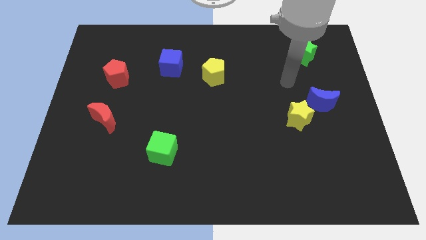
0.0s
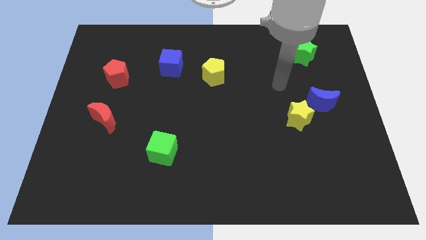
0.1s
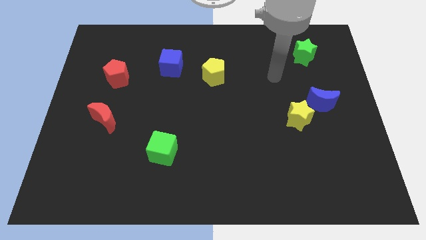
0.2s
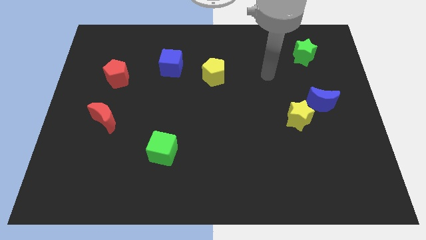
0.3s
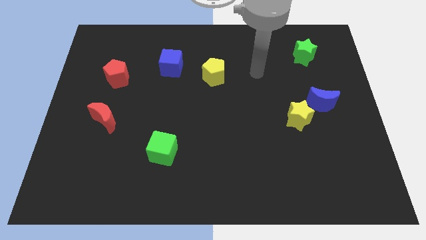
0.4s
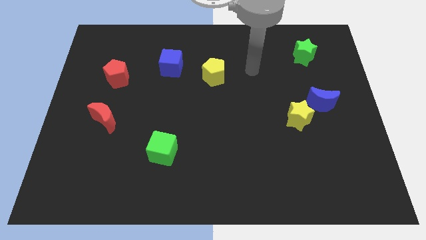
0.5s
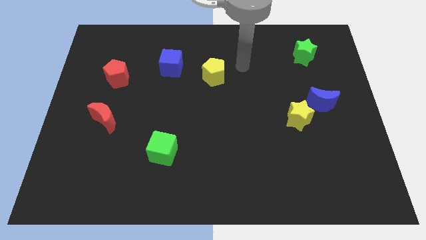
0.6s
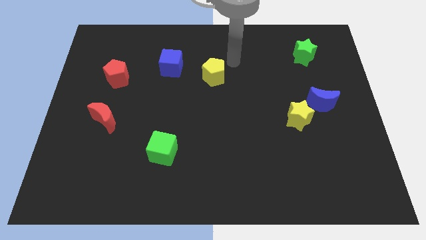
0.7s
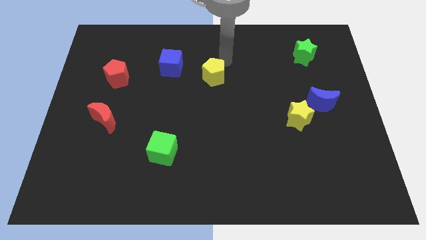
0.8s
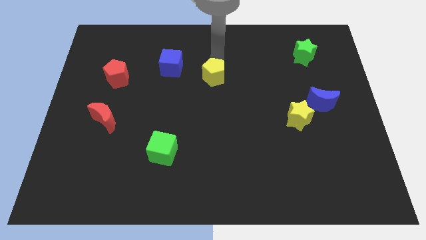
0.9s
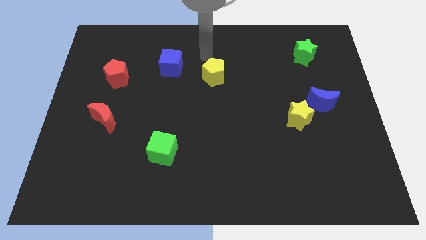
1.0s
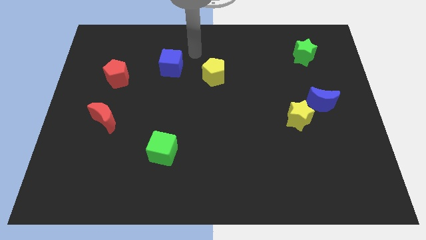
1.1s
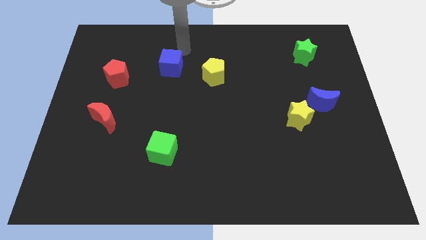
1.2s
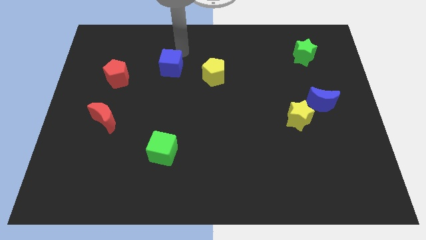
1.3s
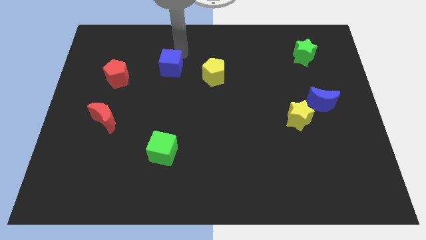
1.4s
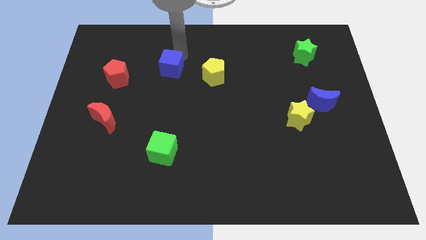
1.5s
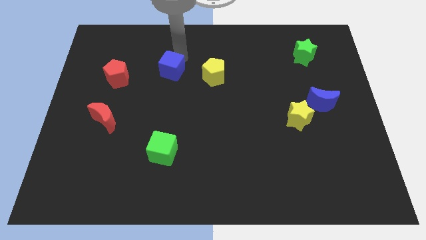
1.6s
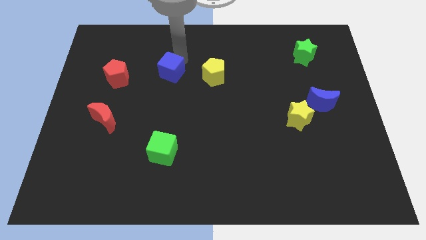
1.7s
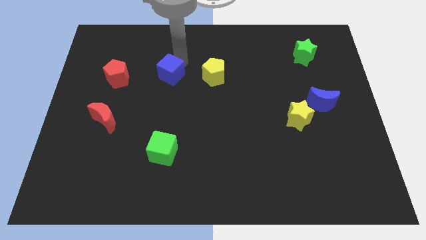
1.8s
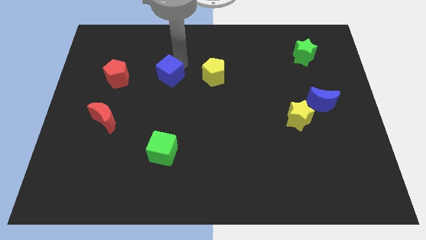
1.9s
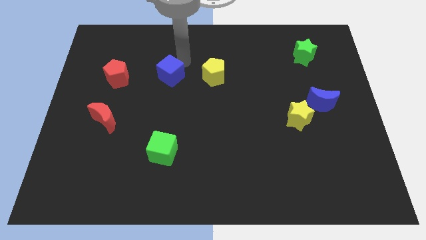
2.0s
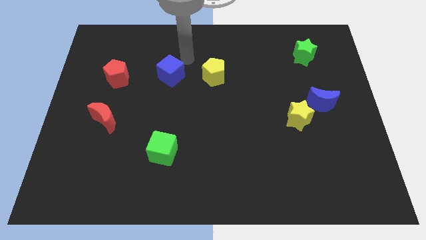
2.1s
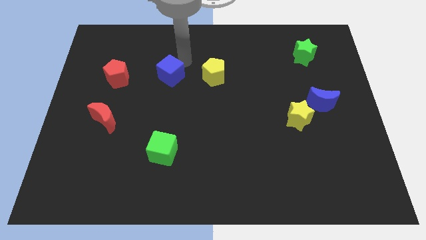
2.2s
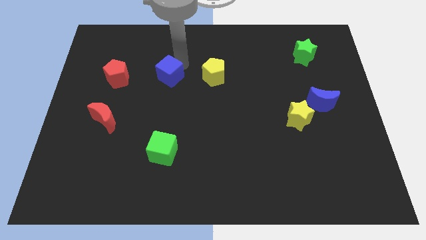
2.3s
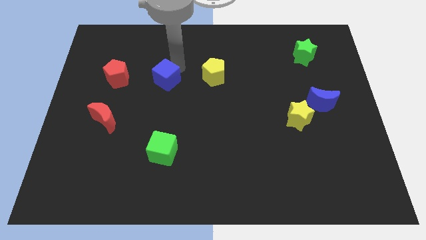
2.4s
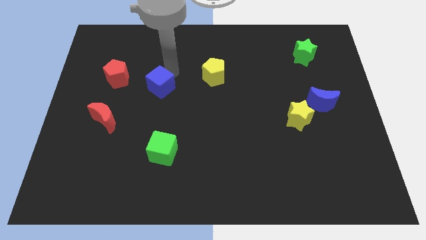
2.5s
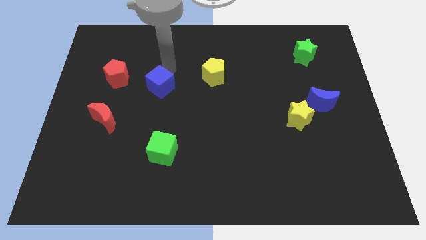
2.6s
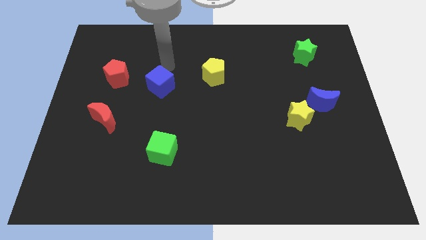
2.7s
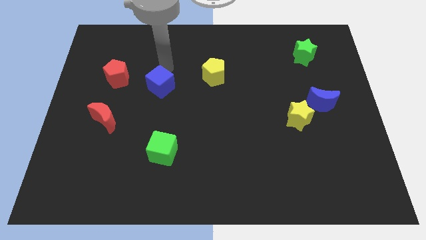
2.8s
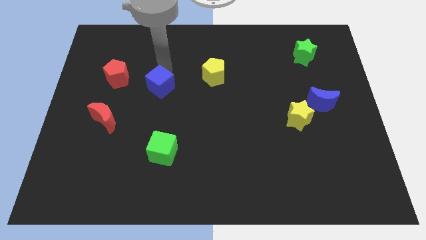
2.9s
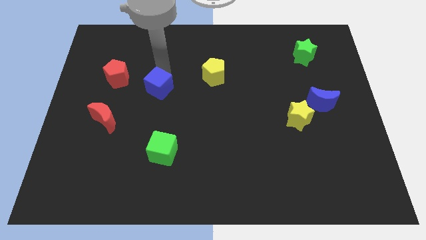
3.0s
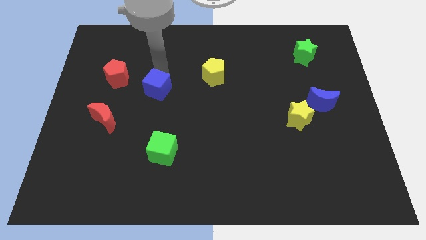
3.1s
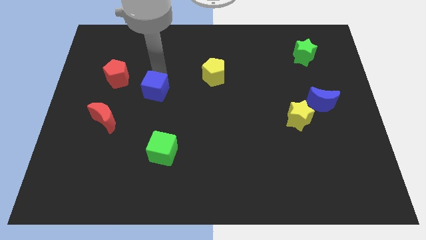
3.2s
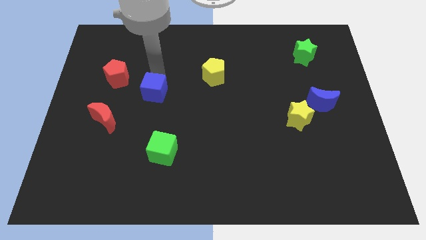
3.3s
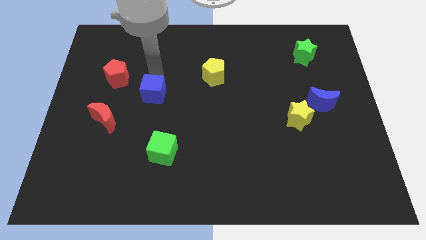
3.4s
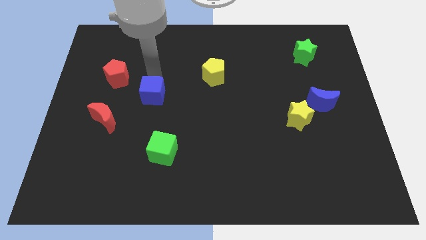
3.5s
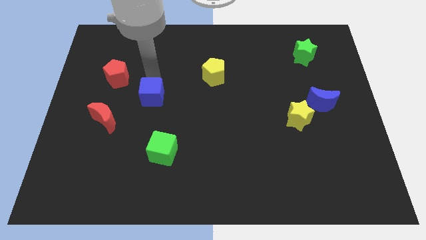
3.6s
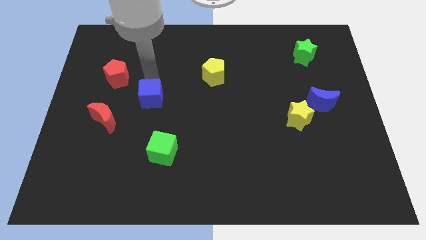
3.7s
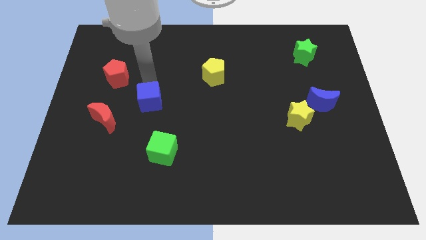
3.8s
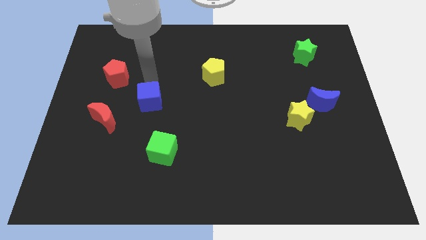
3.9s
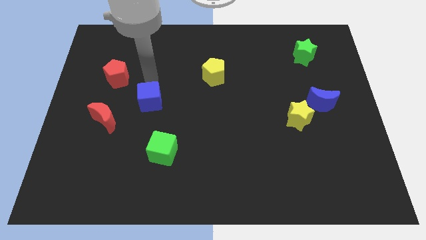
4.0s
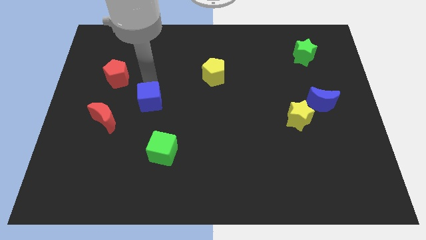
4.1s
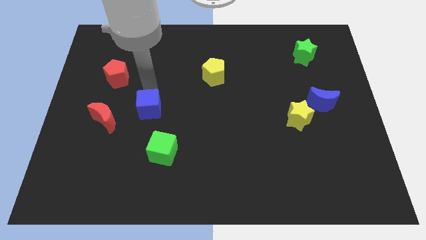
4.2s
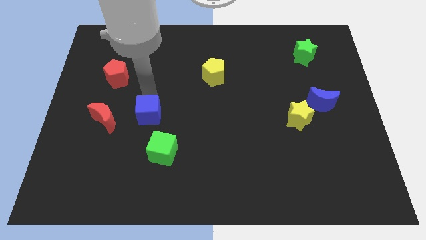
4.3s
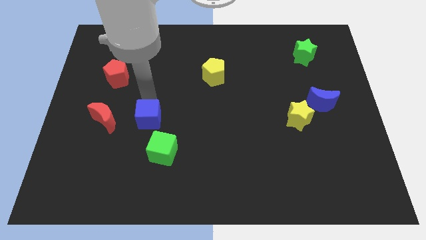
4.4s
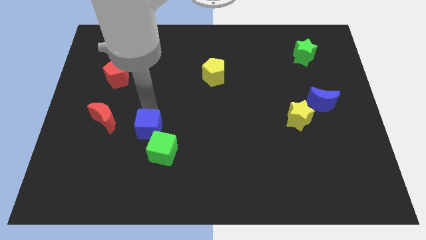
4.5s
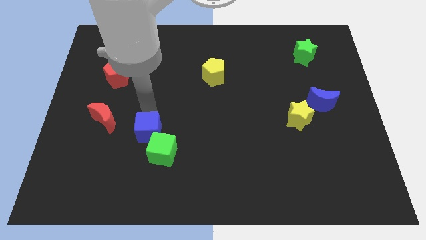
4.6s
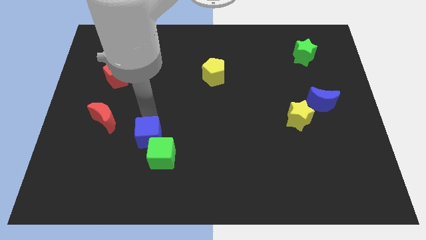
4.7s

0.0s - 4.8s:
push the blue cube down

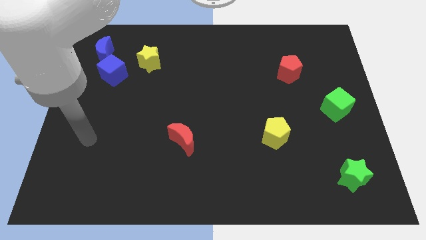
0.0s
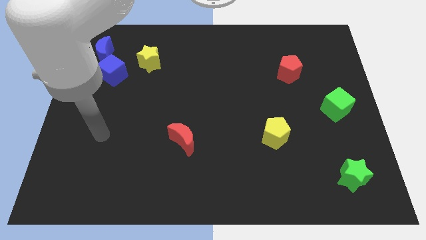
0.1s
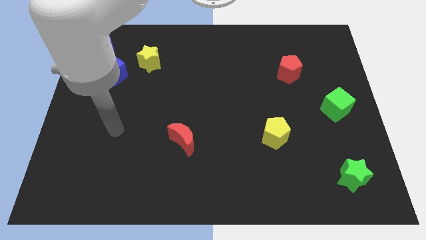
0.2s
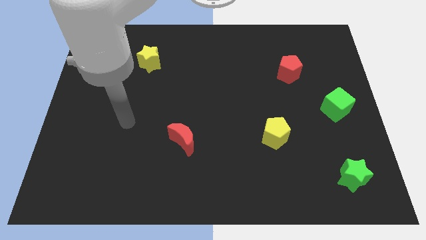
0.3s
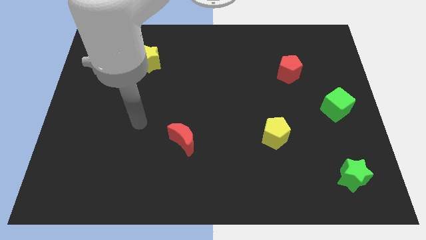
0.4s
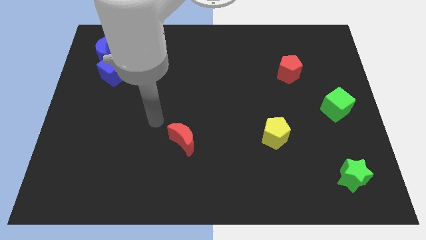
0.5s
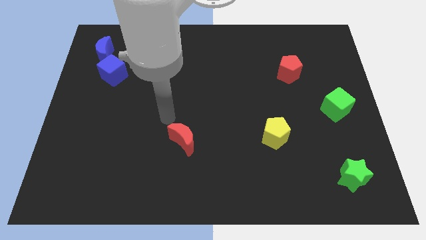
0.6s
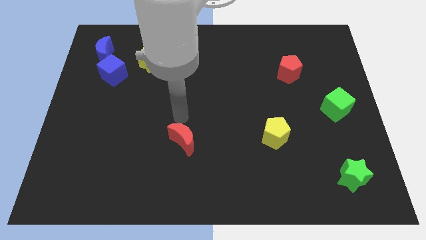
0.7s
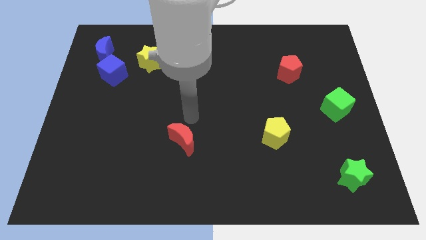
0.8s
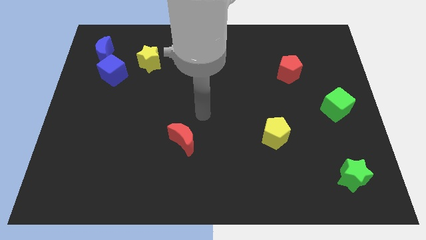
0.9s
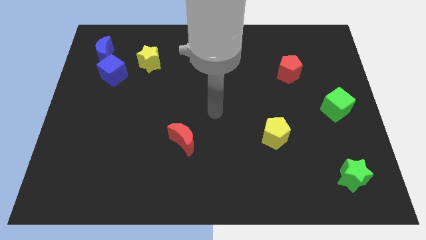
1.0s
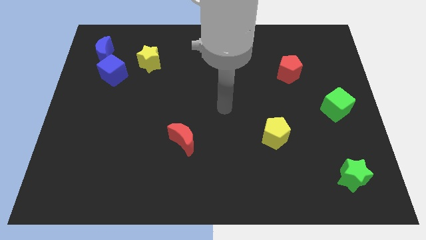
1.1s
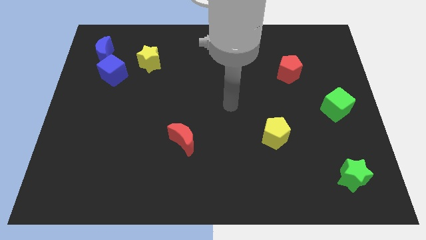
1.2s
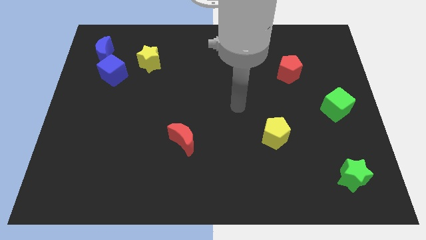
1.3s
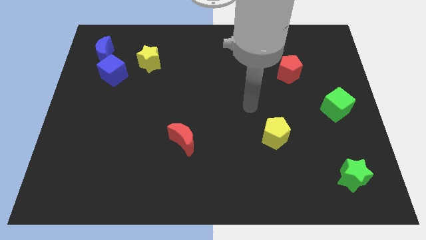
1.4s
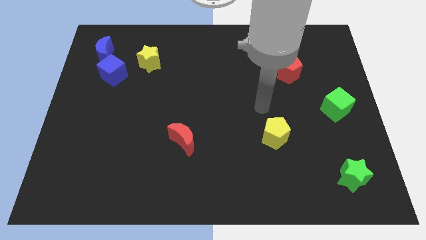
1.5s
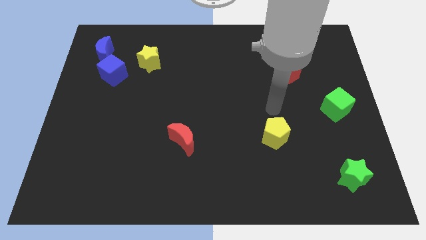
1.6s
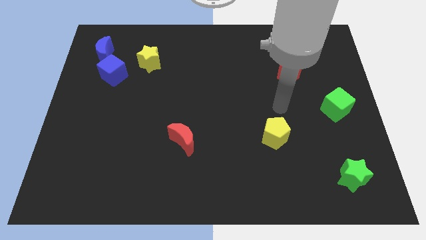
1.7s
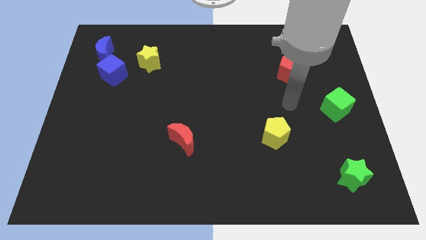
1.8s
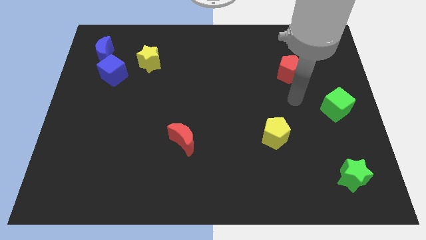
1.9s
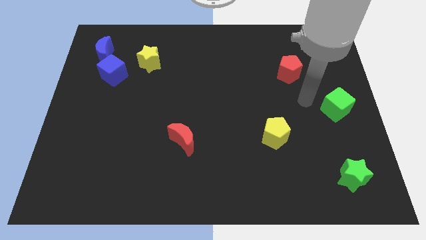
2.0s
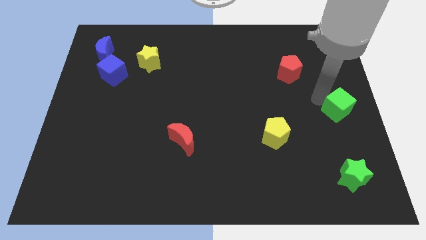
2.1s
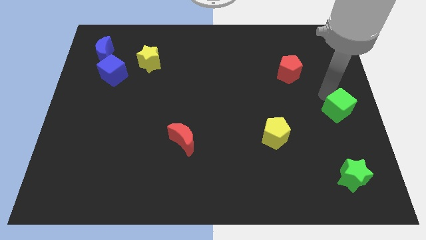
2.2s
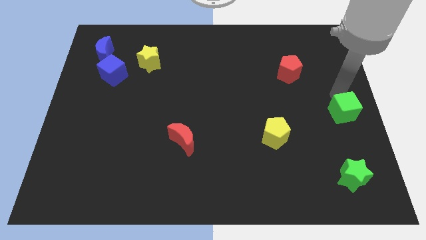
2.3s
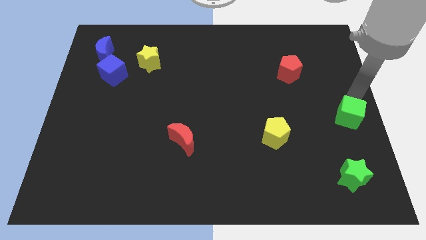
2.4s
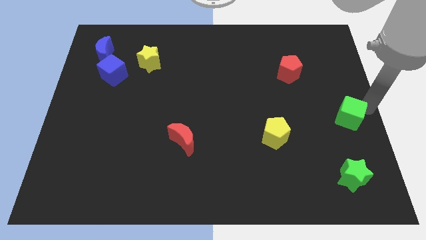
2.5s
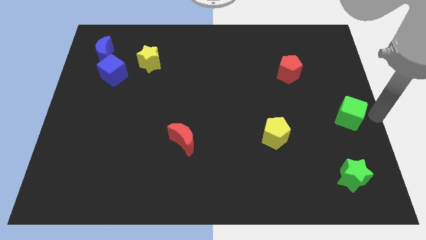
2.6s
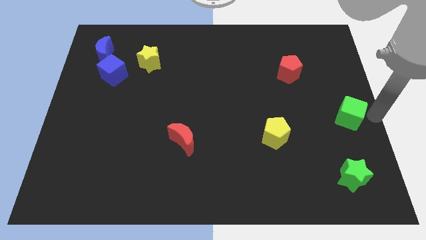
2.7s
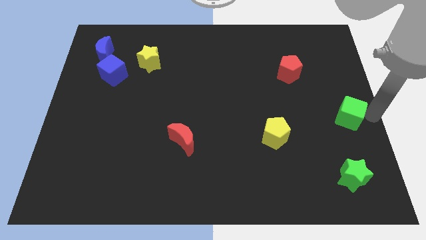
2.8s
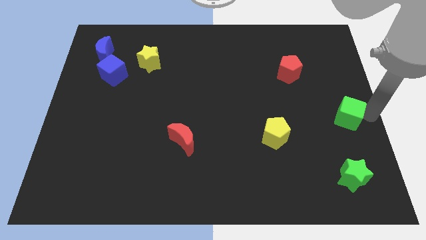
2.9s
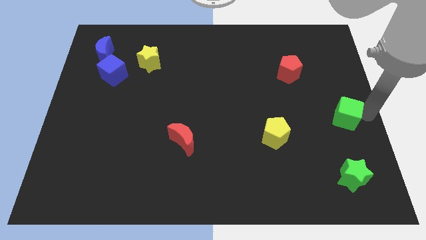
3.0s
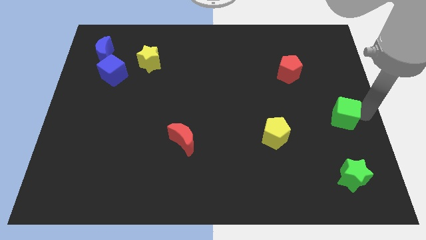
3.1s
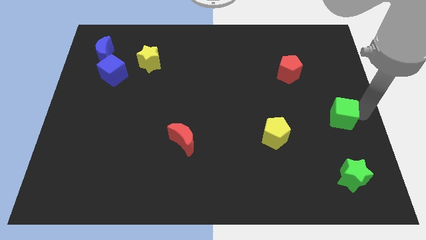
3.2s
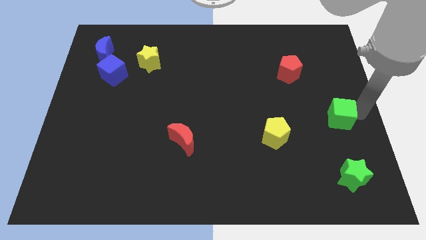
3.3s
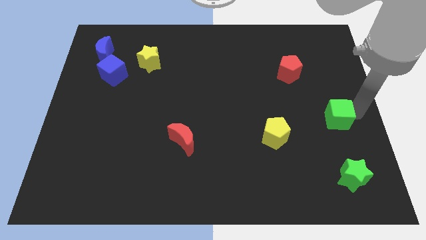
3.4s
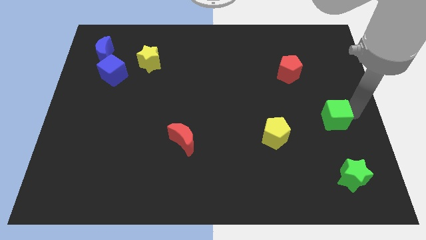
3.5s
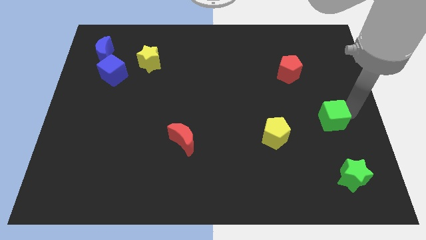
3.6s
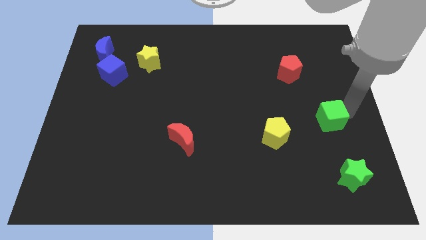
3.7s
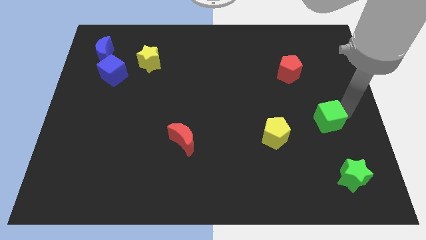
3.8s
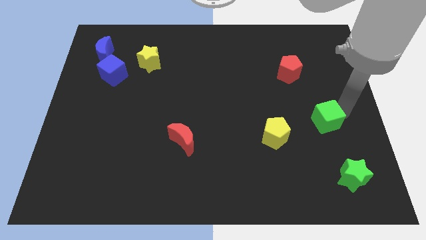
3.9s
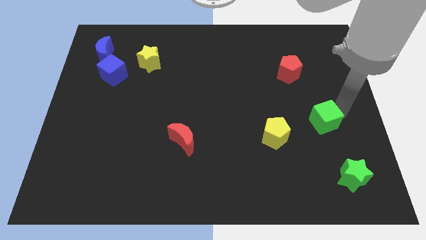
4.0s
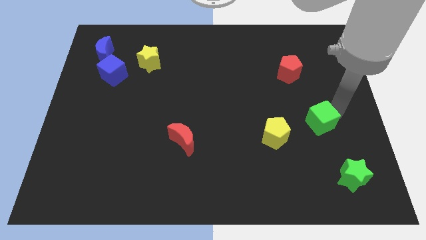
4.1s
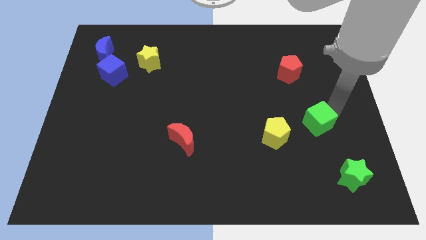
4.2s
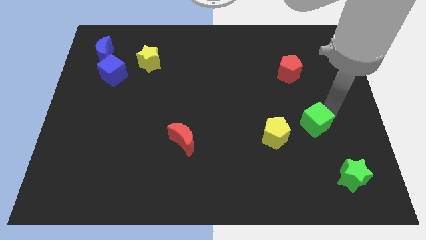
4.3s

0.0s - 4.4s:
slightly slide the green cube down and to the left diagonally
